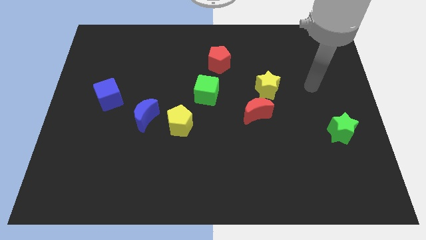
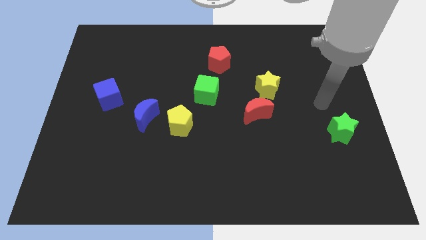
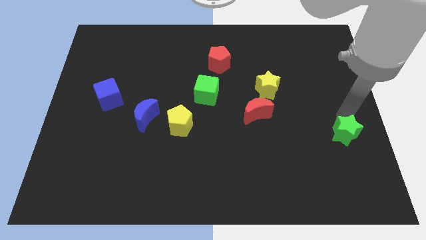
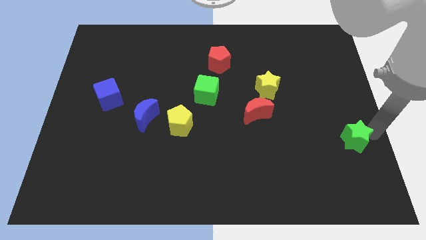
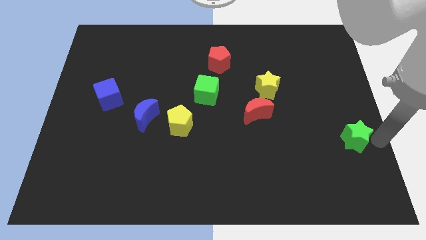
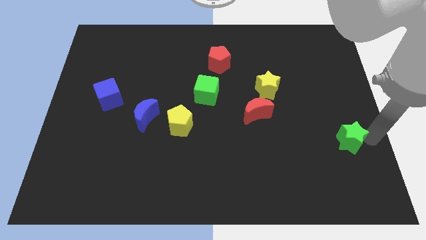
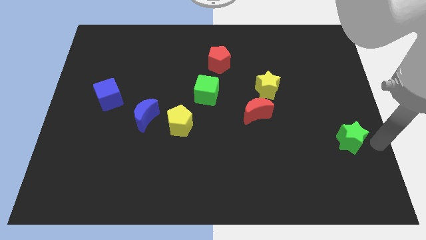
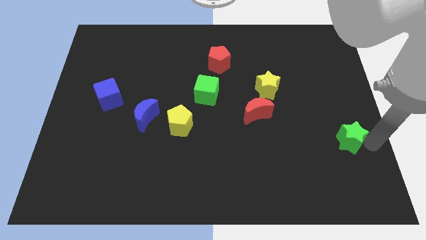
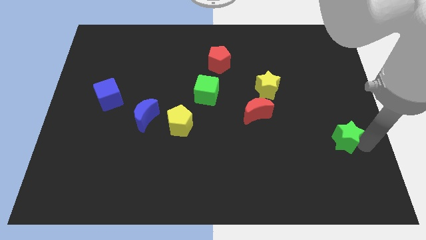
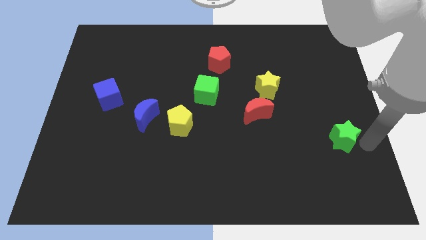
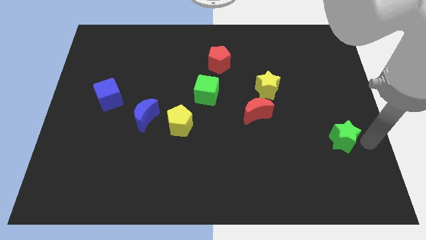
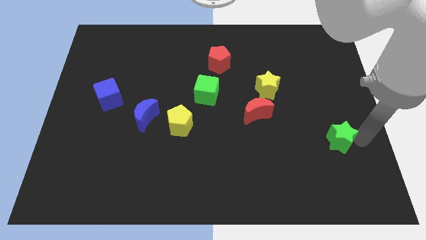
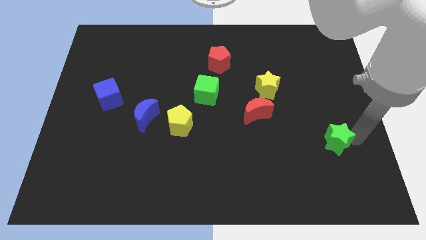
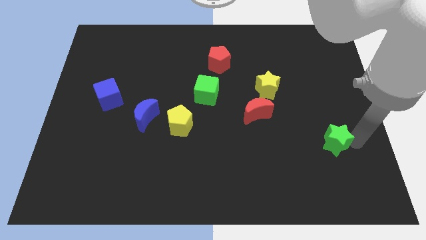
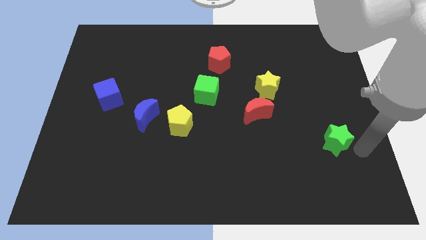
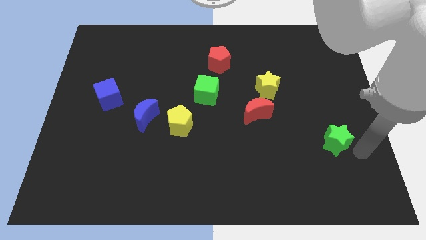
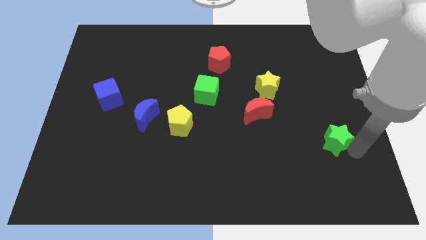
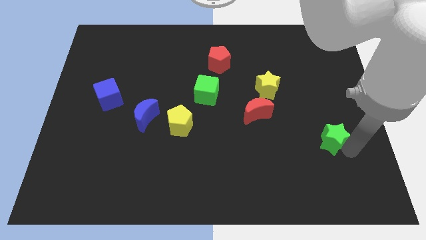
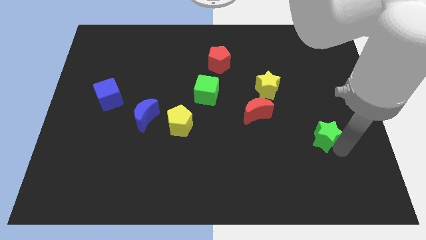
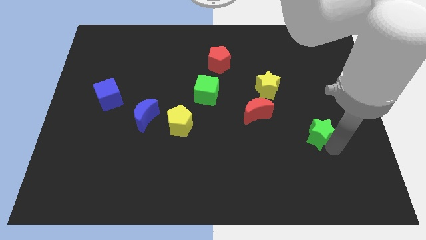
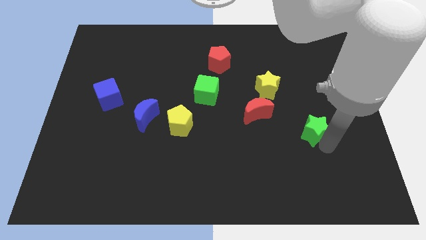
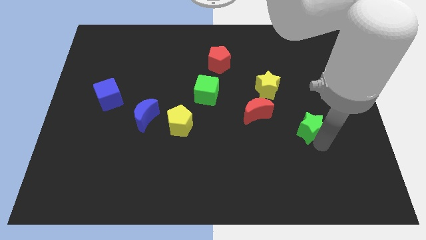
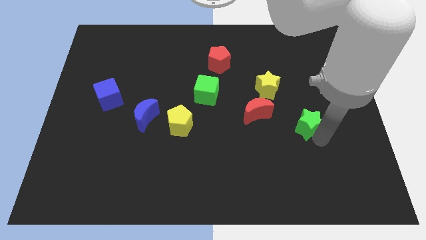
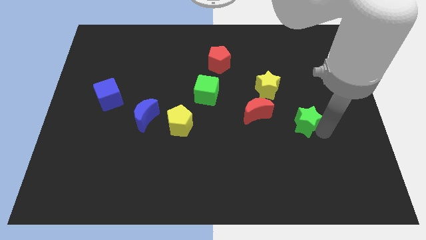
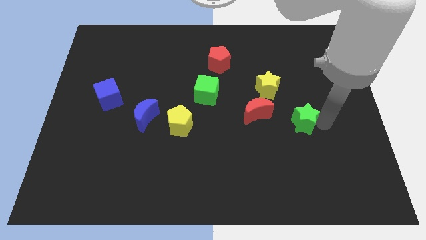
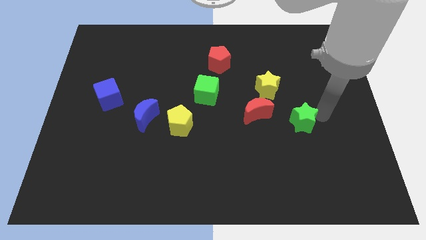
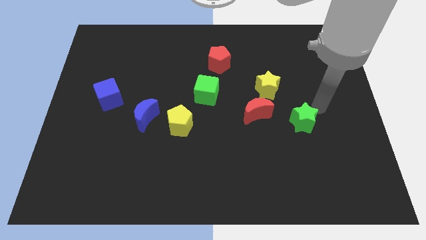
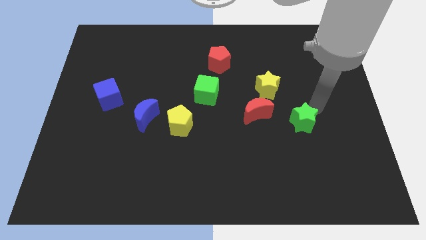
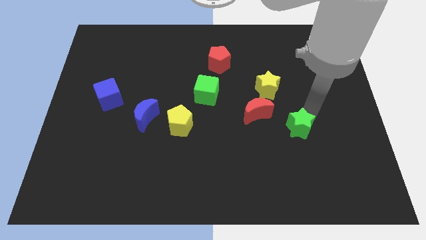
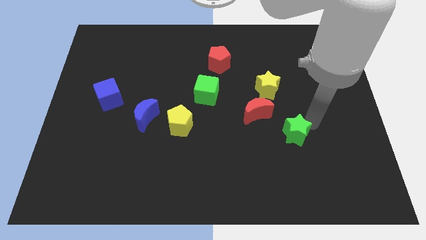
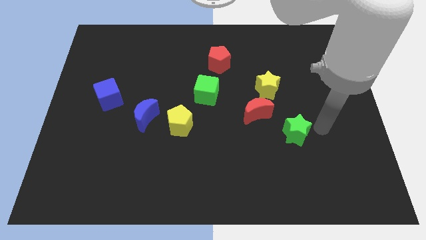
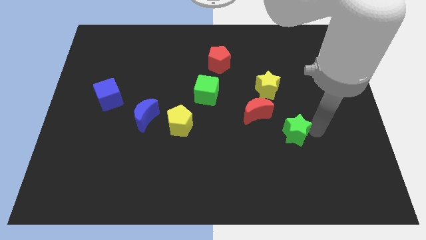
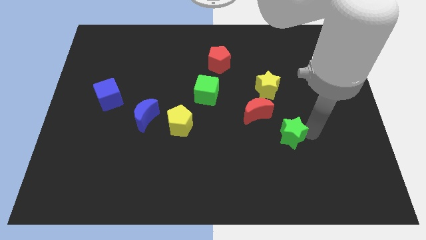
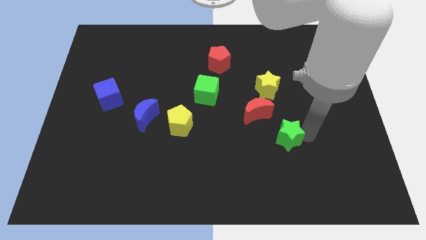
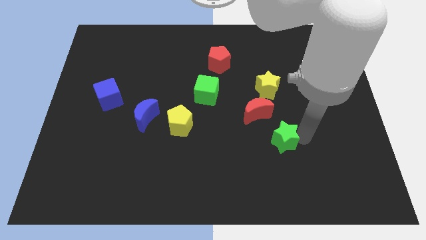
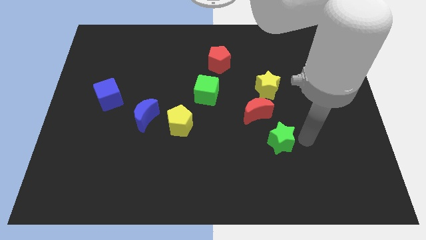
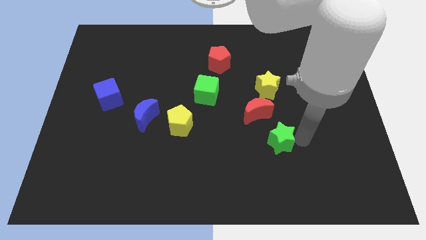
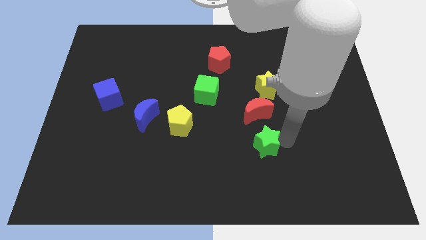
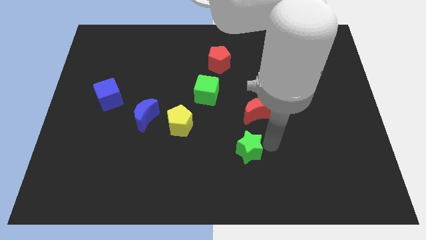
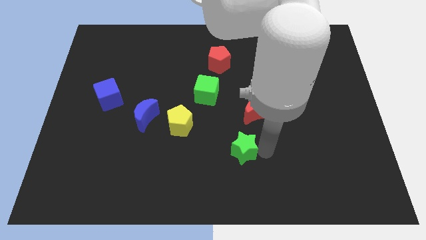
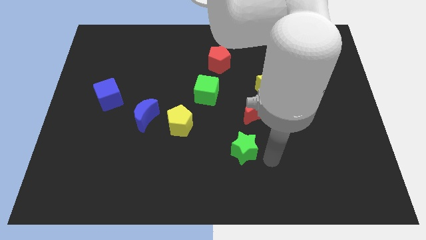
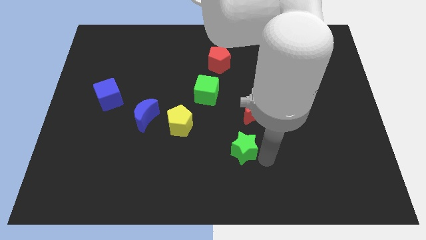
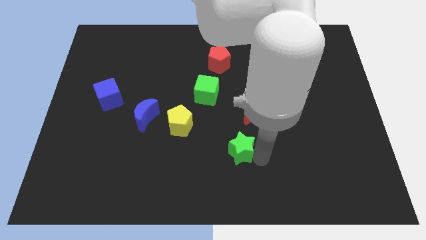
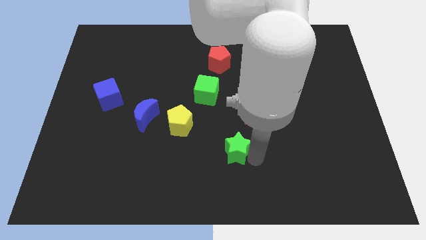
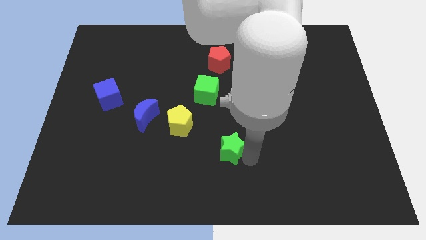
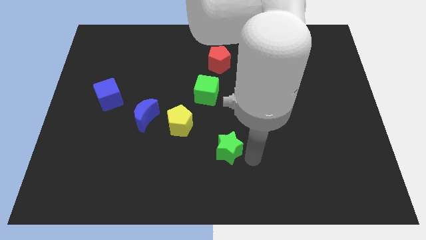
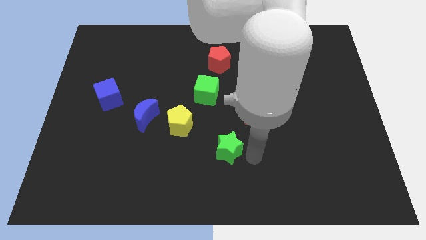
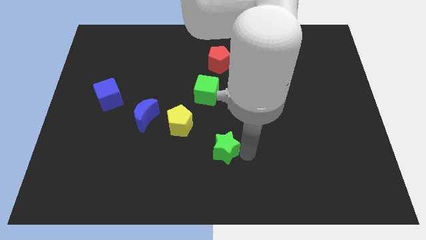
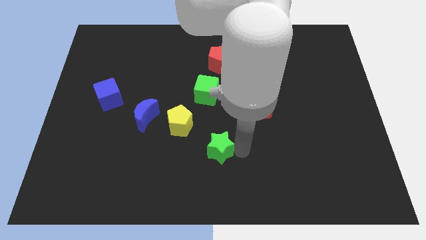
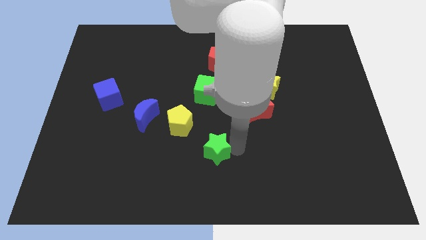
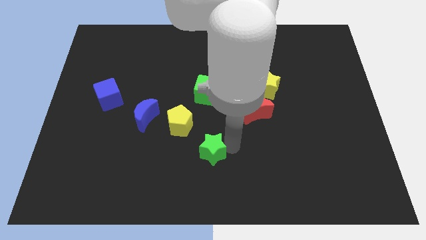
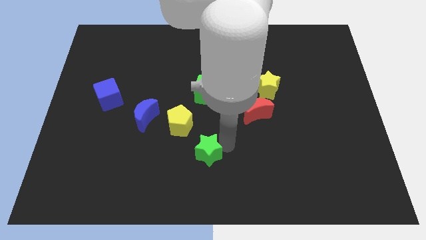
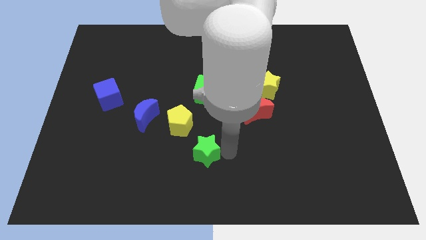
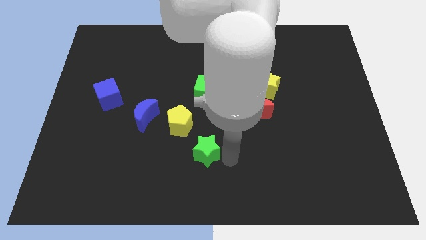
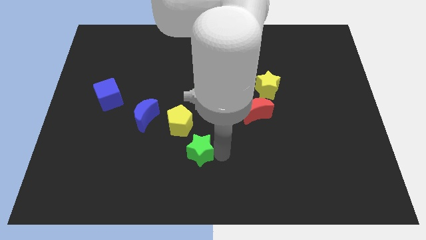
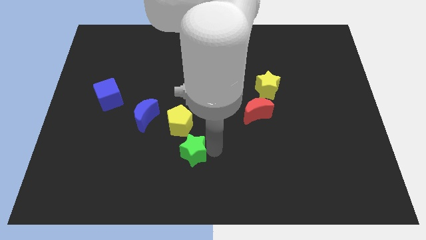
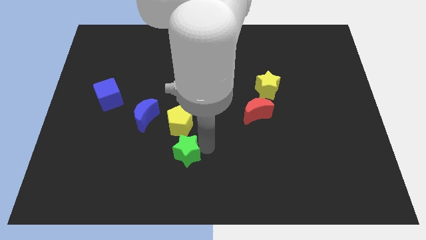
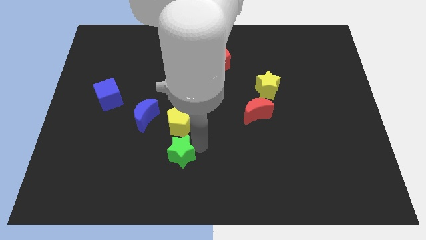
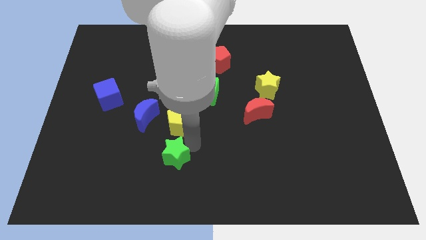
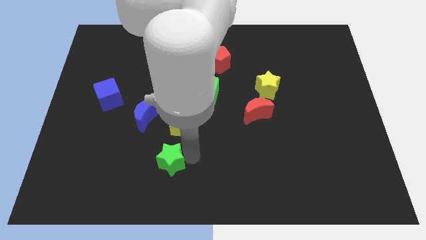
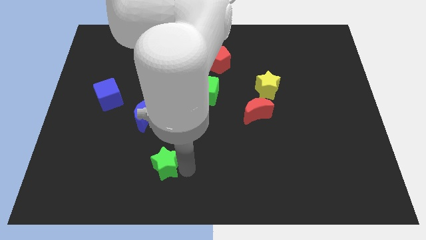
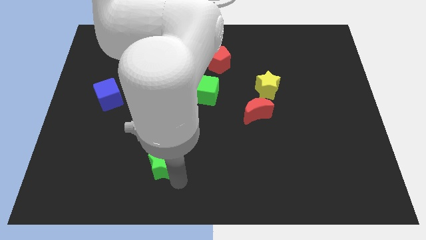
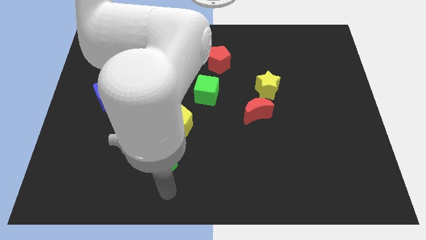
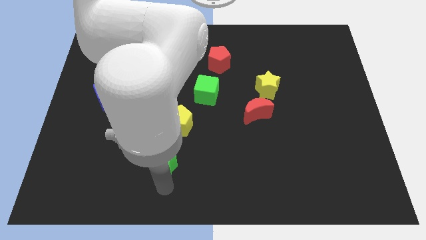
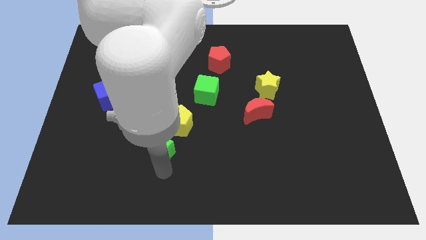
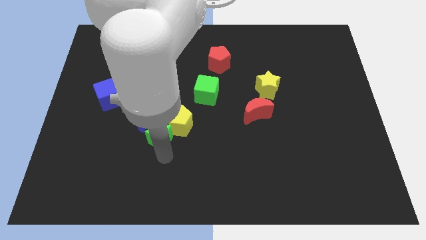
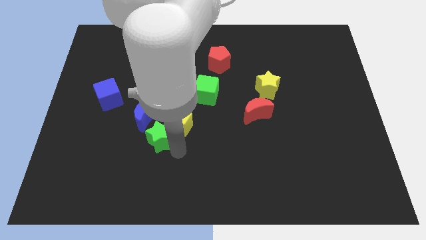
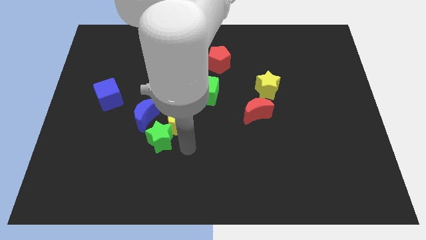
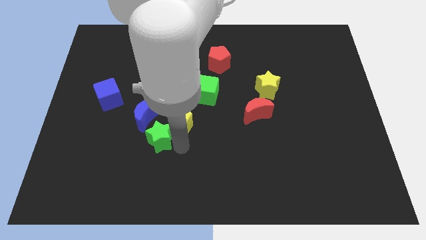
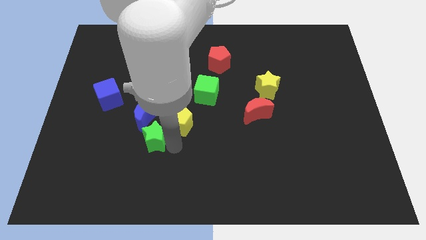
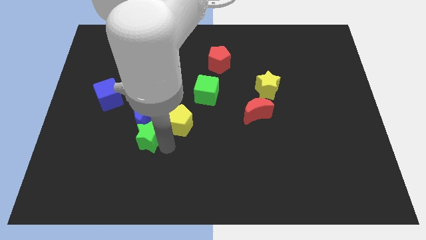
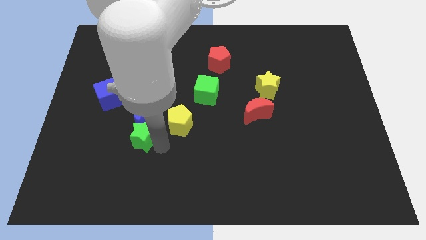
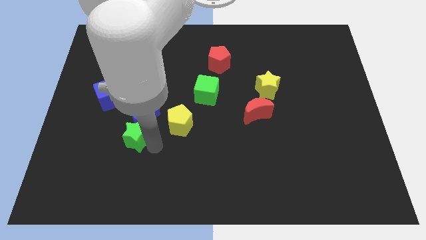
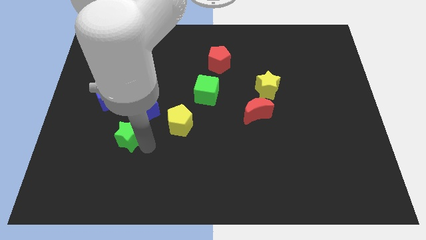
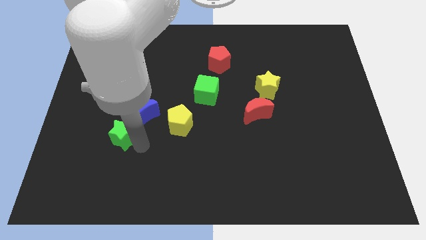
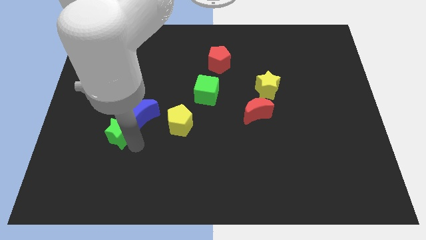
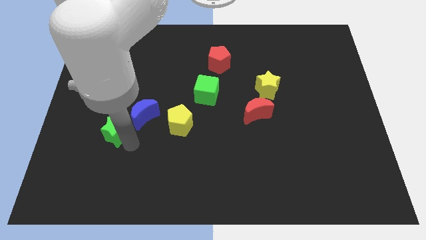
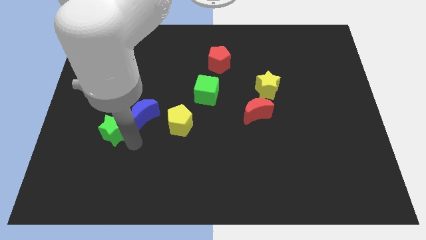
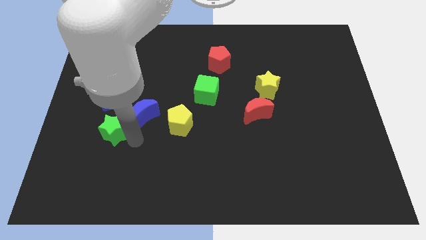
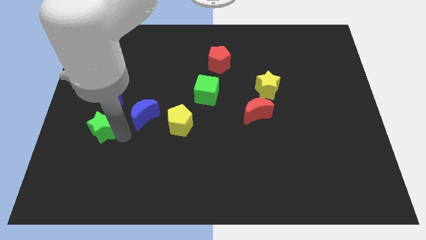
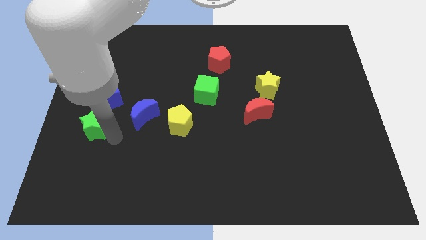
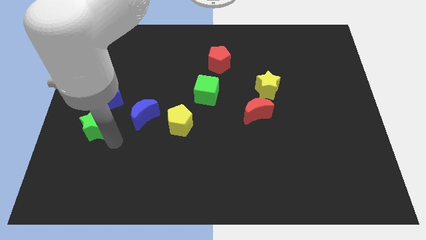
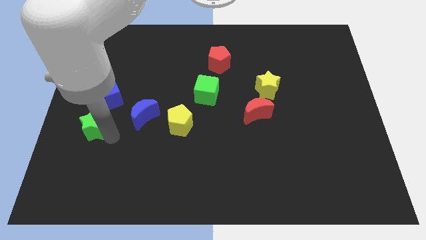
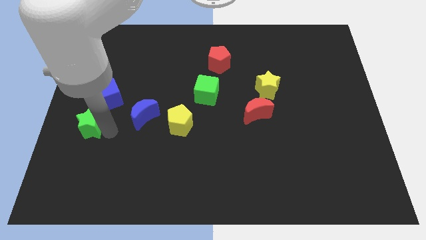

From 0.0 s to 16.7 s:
move the green star to the left side of the board
